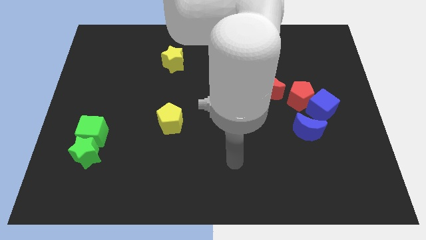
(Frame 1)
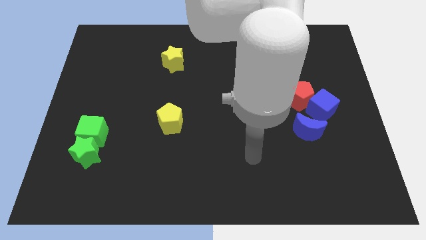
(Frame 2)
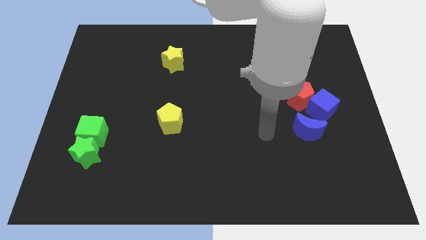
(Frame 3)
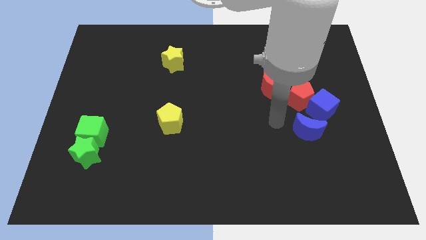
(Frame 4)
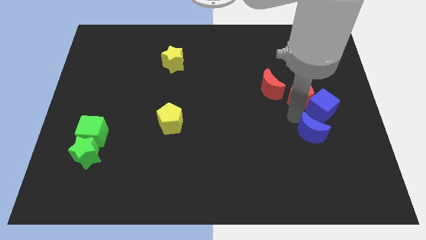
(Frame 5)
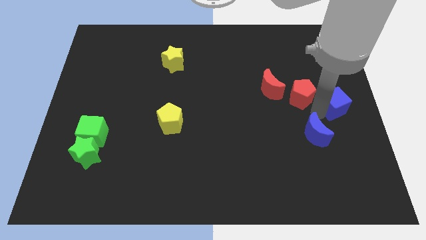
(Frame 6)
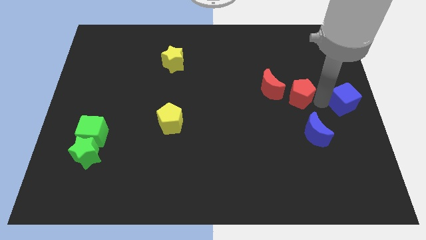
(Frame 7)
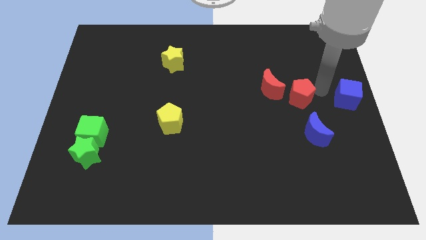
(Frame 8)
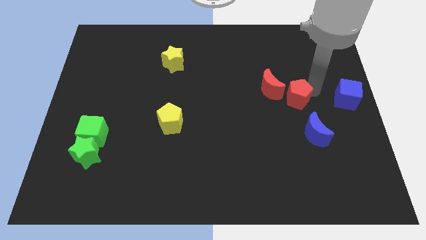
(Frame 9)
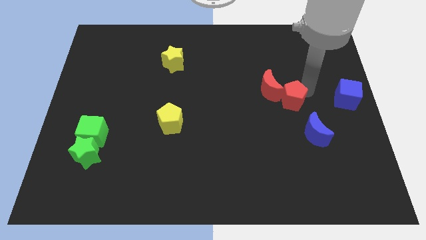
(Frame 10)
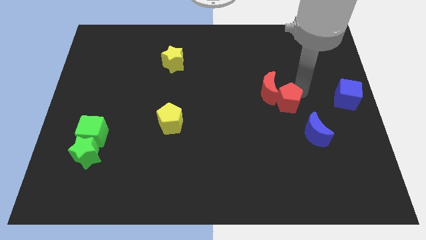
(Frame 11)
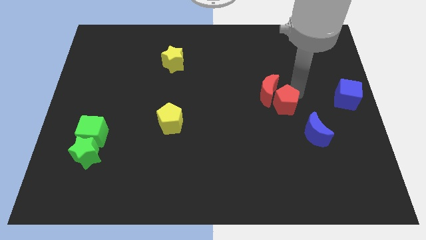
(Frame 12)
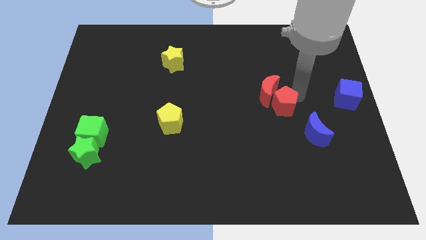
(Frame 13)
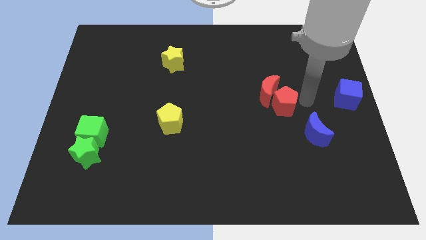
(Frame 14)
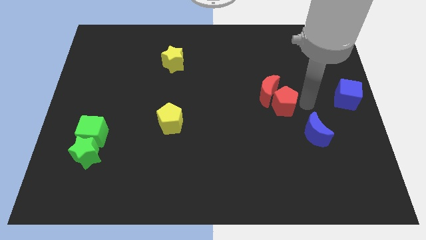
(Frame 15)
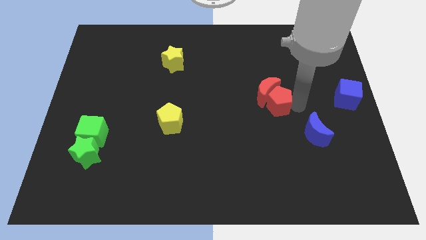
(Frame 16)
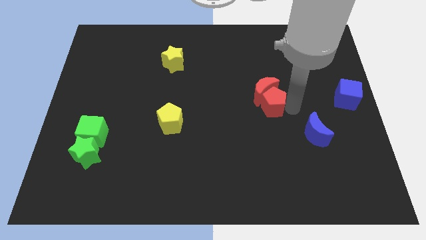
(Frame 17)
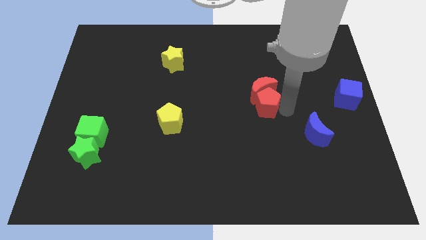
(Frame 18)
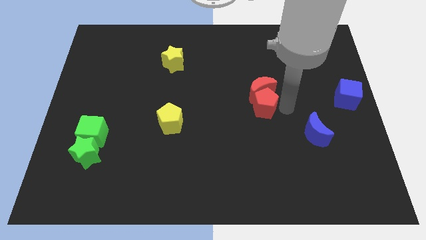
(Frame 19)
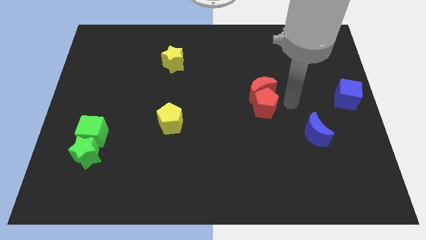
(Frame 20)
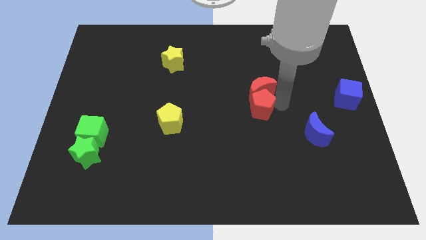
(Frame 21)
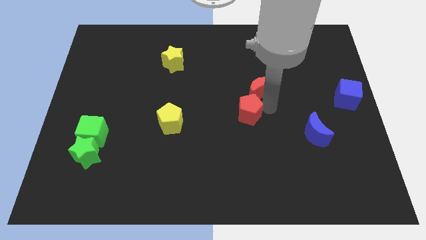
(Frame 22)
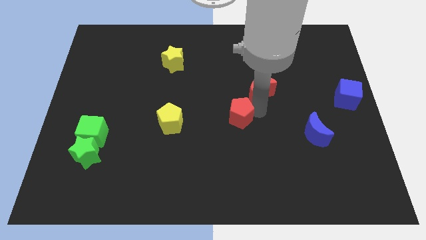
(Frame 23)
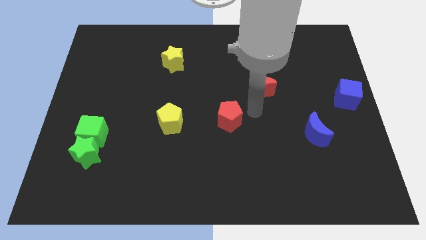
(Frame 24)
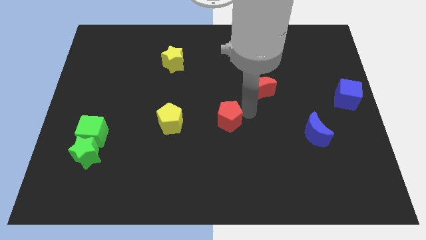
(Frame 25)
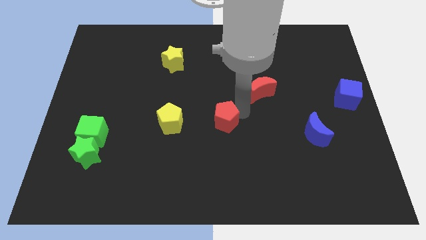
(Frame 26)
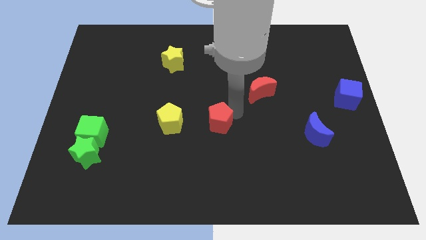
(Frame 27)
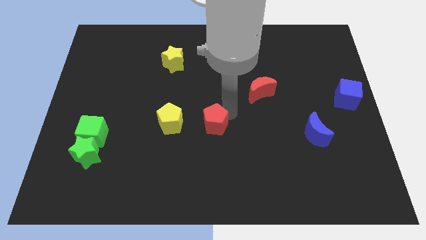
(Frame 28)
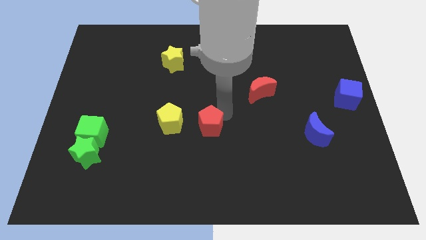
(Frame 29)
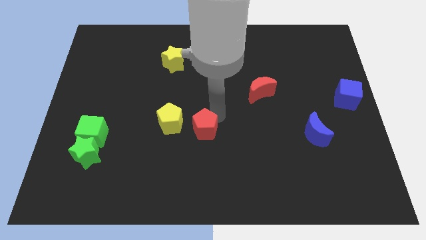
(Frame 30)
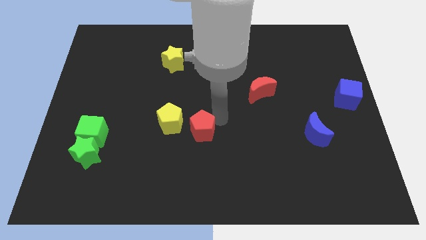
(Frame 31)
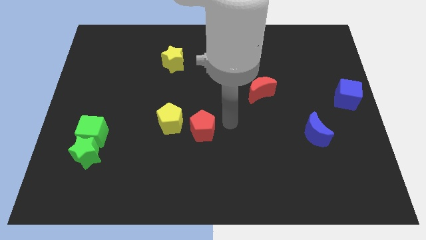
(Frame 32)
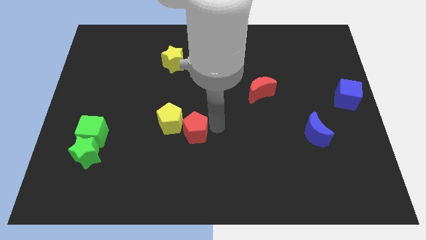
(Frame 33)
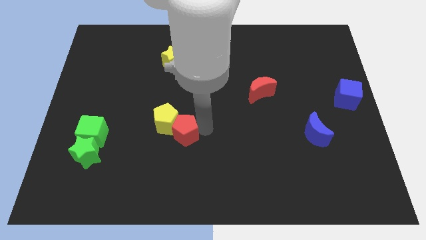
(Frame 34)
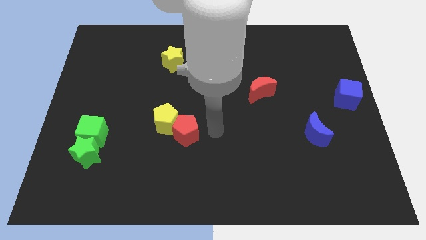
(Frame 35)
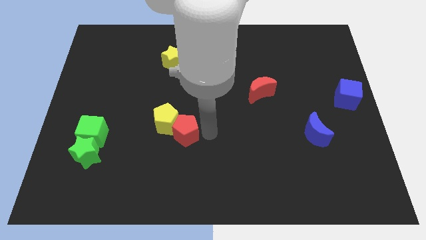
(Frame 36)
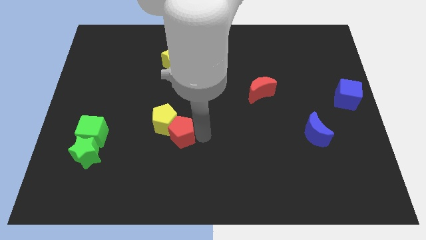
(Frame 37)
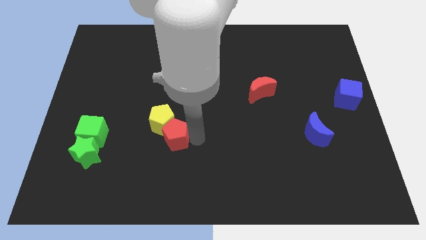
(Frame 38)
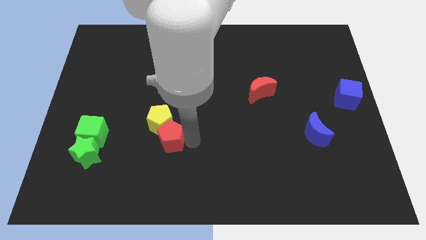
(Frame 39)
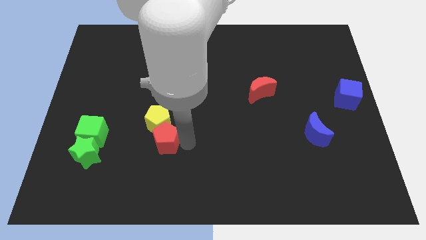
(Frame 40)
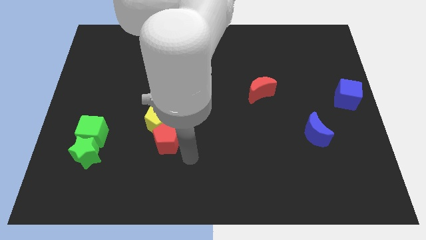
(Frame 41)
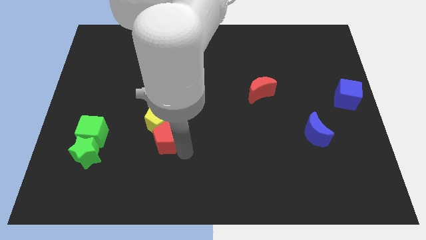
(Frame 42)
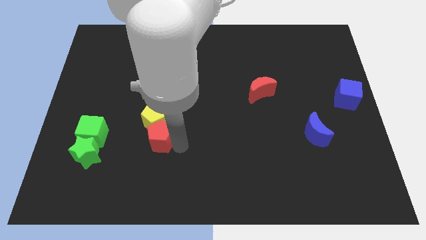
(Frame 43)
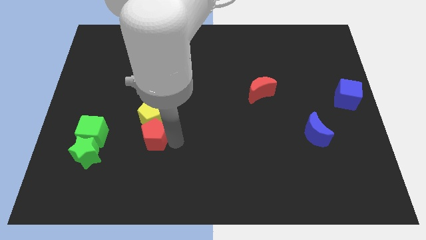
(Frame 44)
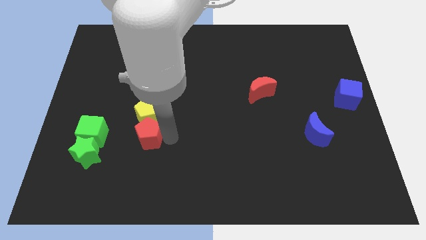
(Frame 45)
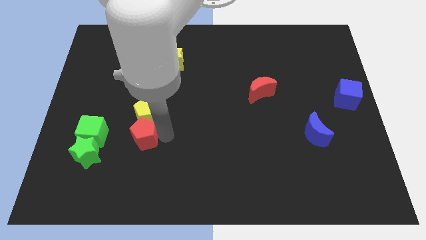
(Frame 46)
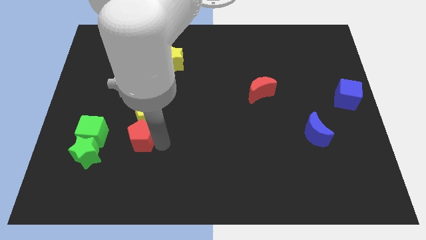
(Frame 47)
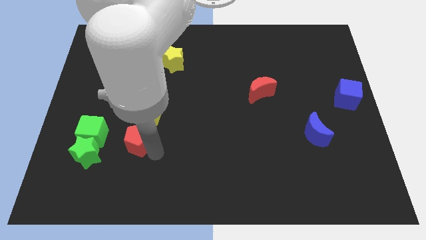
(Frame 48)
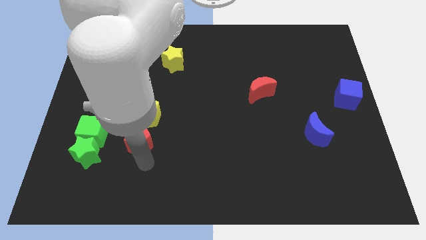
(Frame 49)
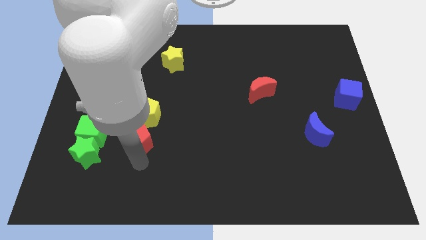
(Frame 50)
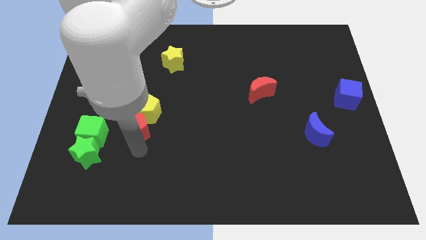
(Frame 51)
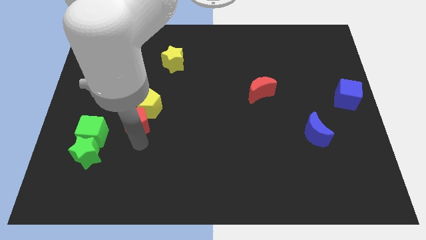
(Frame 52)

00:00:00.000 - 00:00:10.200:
put the red pentagon to the top right side of the green cube

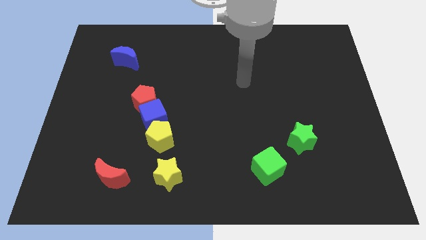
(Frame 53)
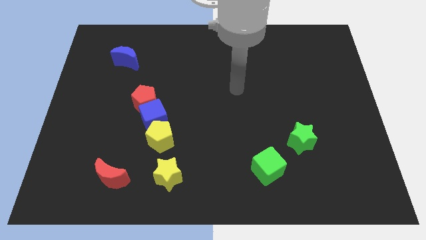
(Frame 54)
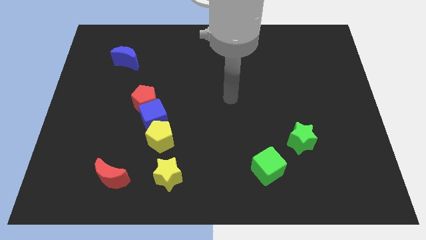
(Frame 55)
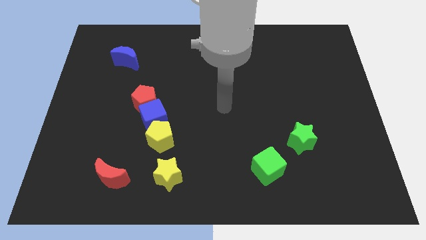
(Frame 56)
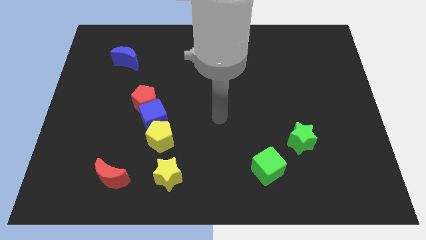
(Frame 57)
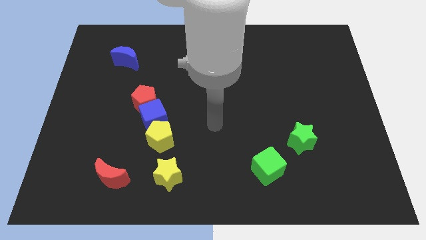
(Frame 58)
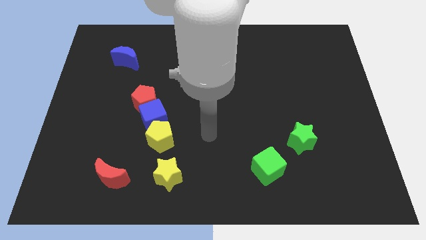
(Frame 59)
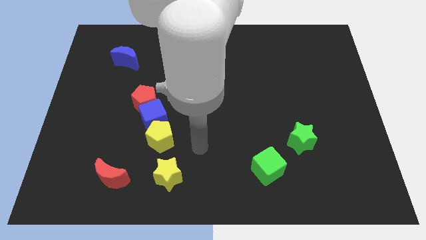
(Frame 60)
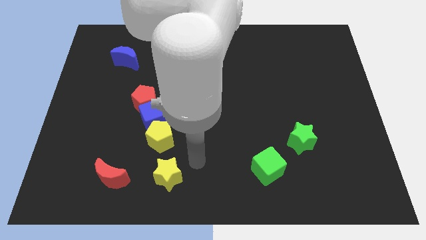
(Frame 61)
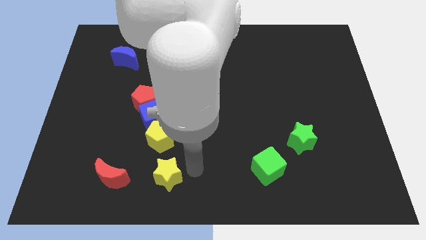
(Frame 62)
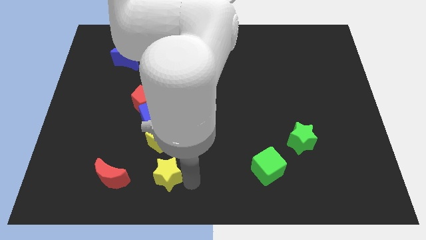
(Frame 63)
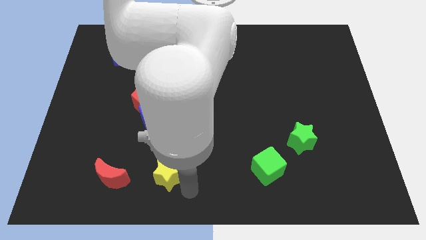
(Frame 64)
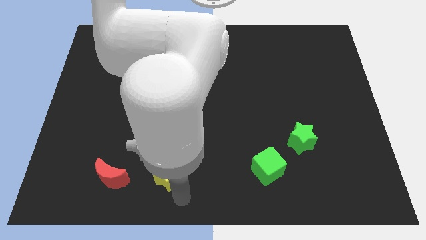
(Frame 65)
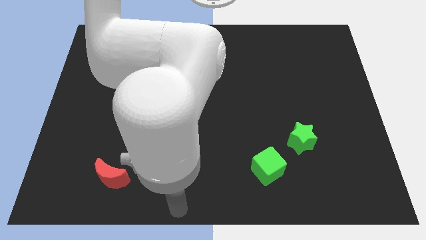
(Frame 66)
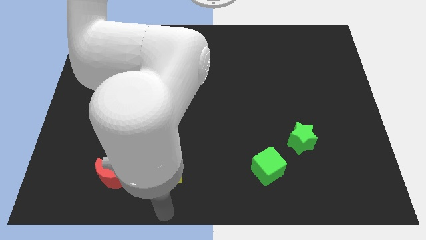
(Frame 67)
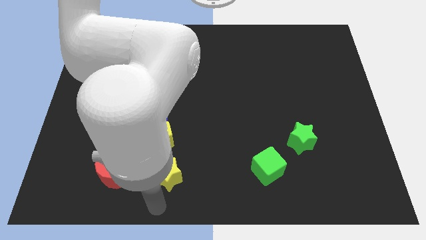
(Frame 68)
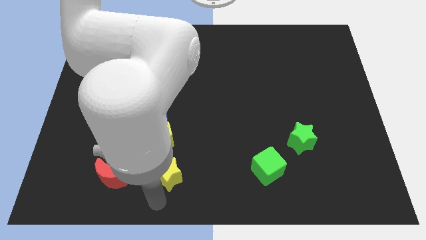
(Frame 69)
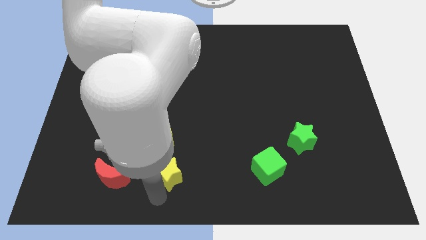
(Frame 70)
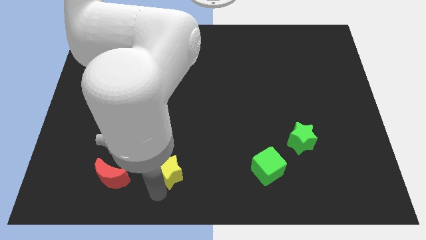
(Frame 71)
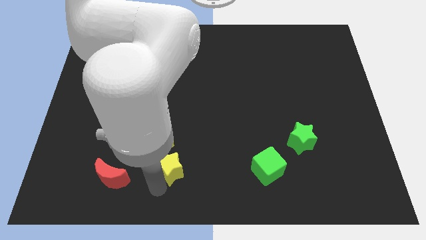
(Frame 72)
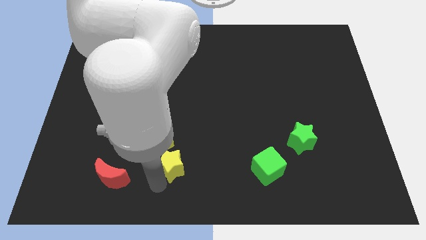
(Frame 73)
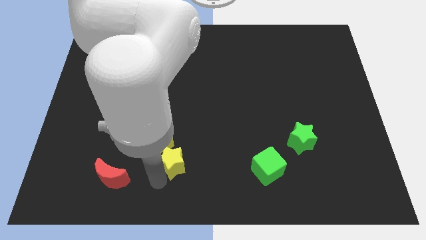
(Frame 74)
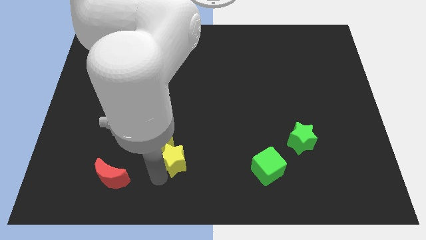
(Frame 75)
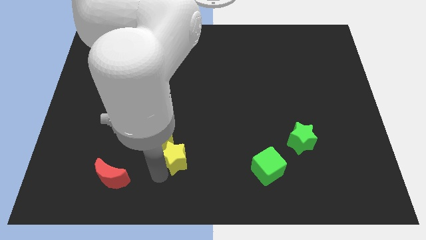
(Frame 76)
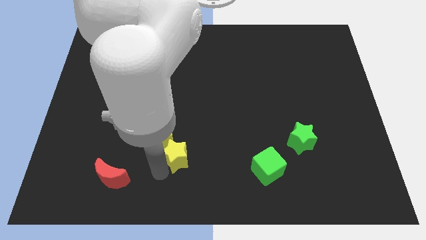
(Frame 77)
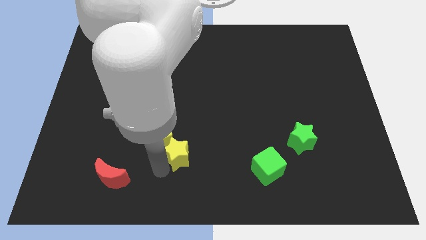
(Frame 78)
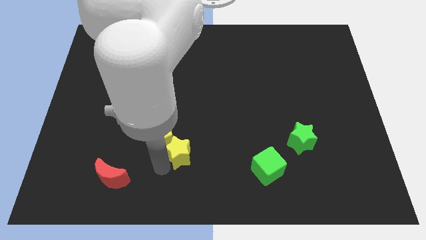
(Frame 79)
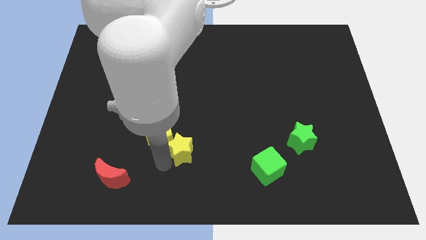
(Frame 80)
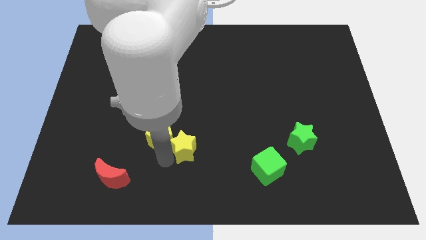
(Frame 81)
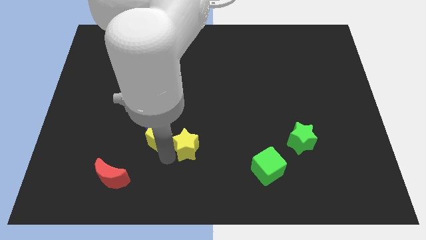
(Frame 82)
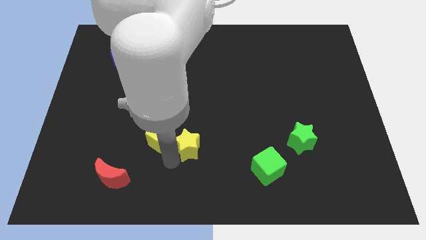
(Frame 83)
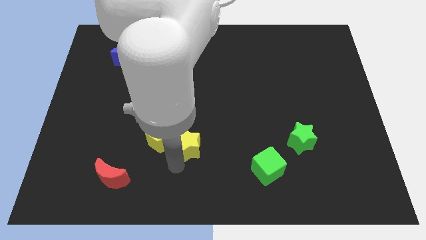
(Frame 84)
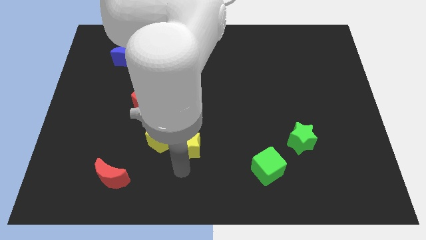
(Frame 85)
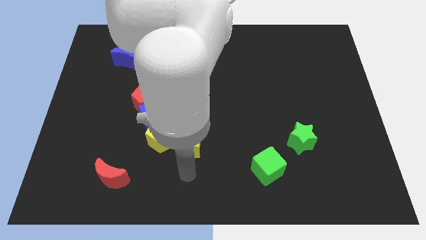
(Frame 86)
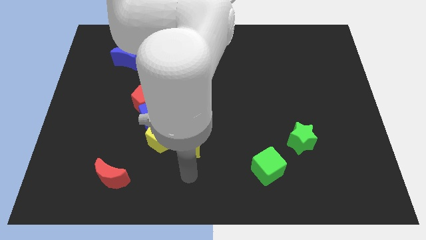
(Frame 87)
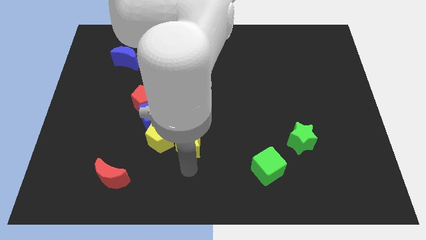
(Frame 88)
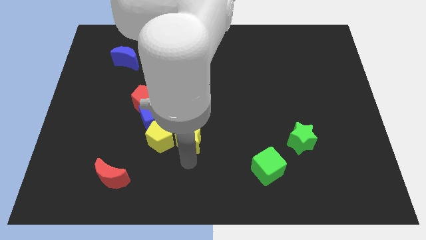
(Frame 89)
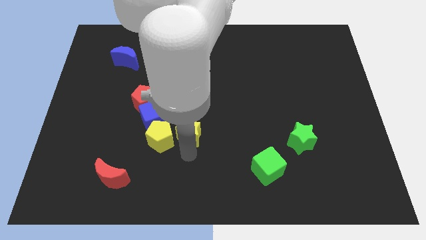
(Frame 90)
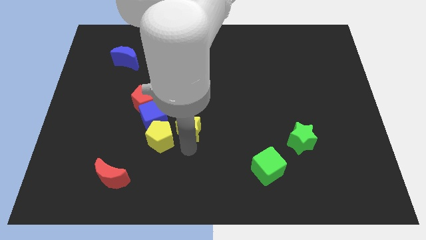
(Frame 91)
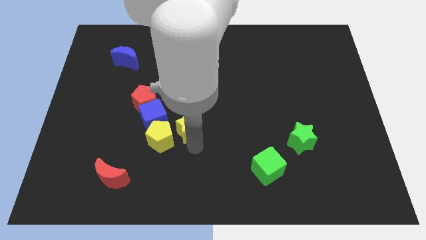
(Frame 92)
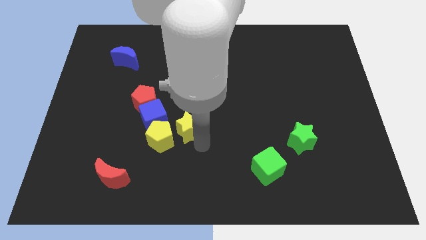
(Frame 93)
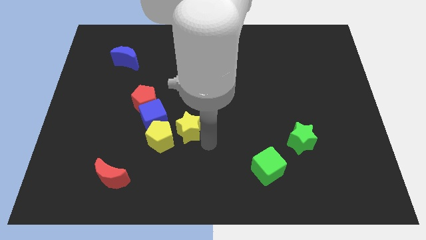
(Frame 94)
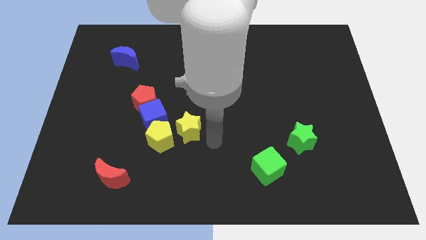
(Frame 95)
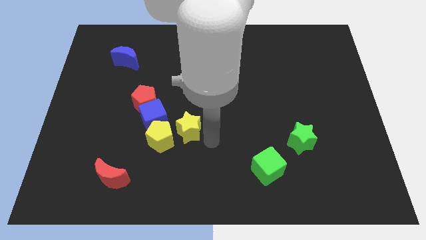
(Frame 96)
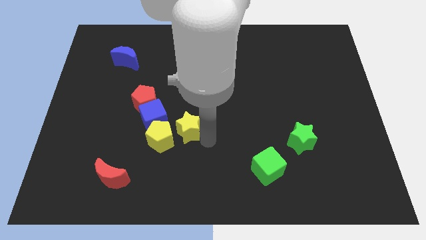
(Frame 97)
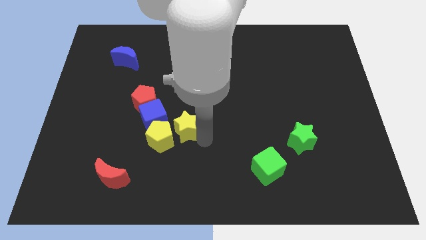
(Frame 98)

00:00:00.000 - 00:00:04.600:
slide the yellow star diagonally down and to the right of the red pentagon
